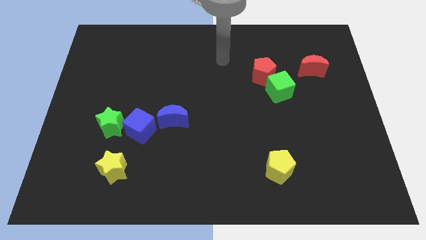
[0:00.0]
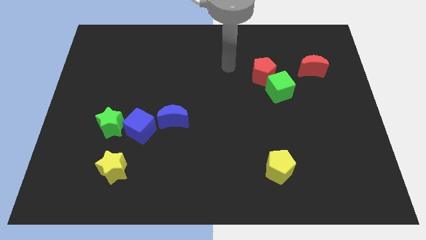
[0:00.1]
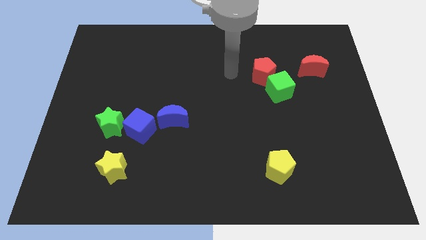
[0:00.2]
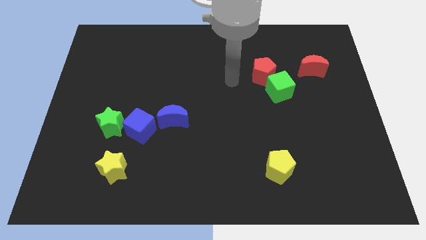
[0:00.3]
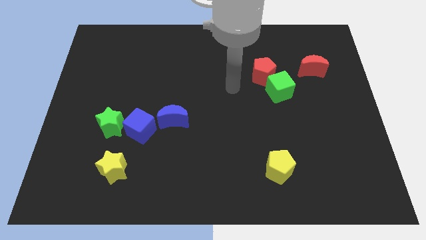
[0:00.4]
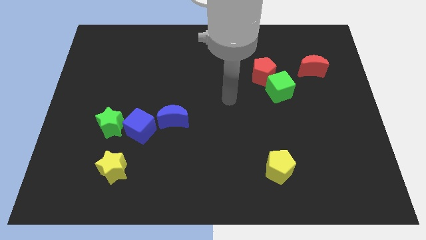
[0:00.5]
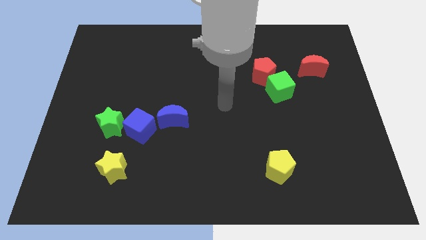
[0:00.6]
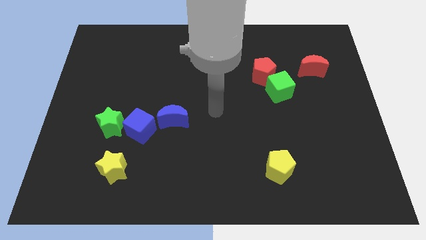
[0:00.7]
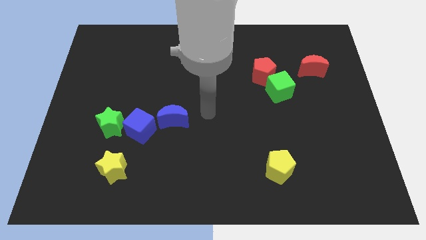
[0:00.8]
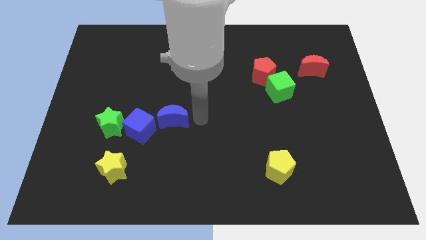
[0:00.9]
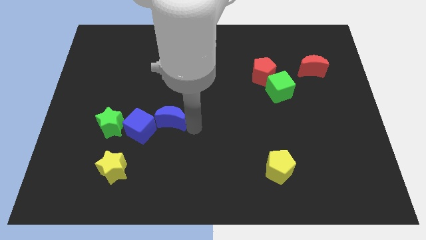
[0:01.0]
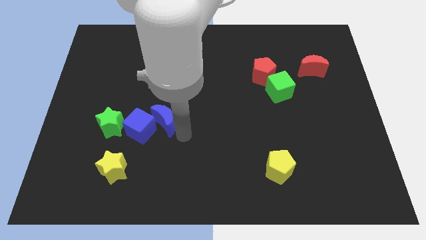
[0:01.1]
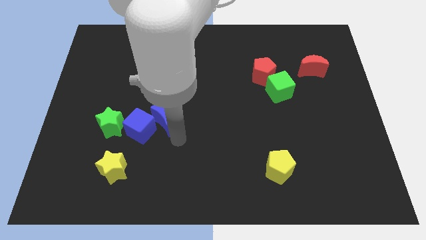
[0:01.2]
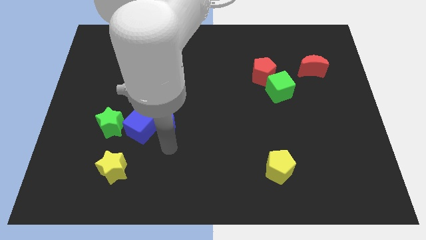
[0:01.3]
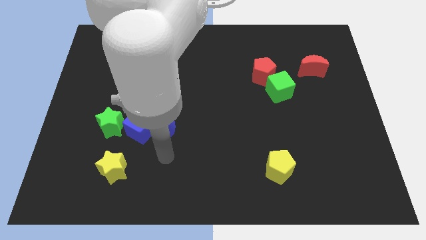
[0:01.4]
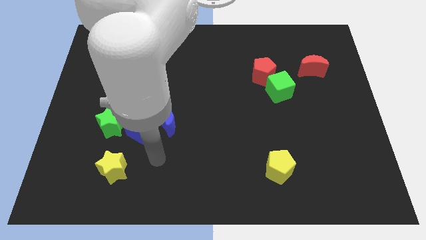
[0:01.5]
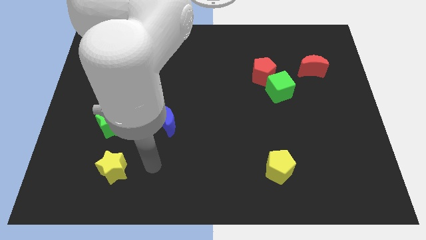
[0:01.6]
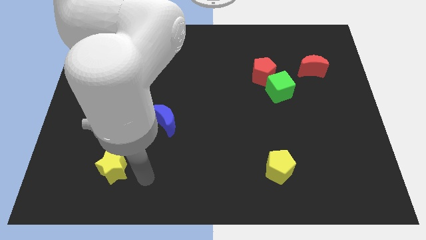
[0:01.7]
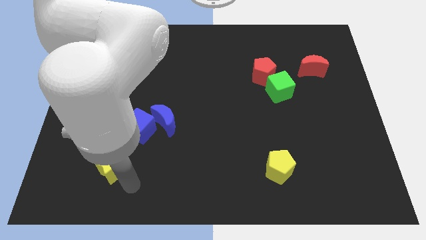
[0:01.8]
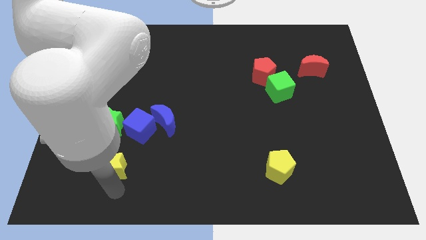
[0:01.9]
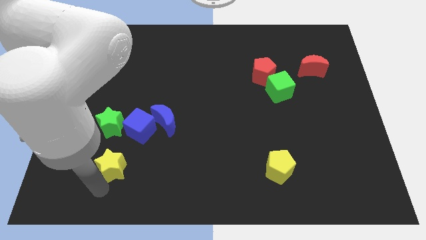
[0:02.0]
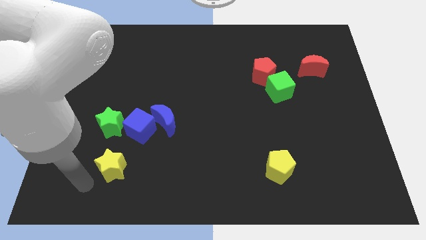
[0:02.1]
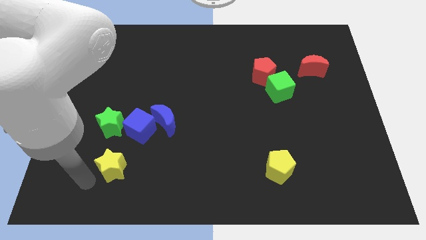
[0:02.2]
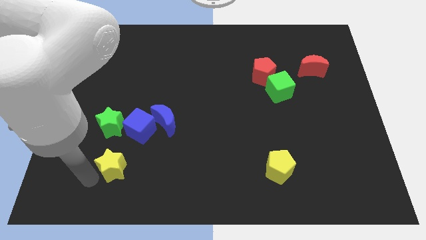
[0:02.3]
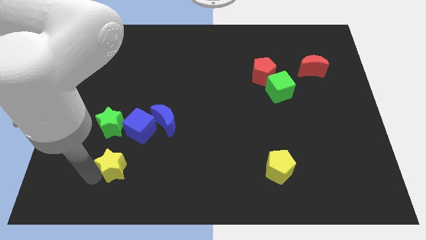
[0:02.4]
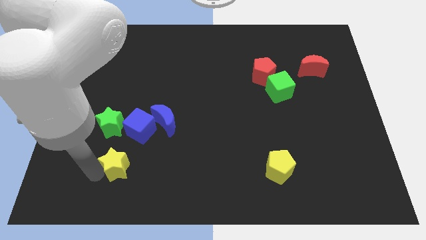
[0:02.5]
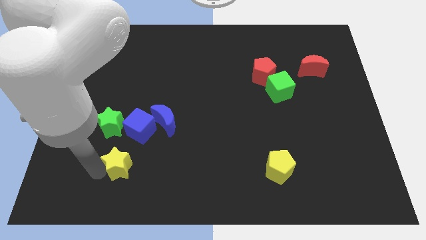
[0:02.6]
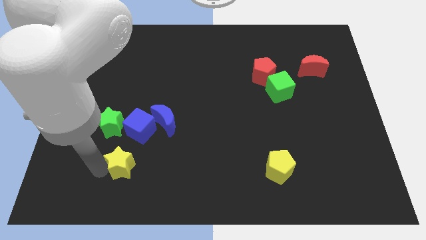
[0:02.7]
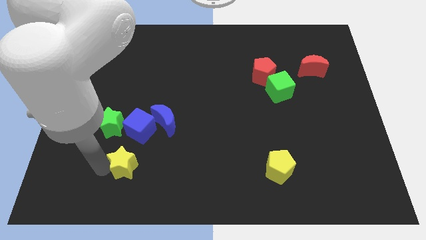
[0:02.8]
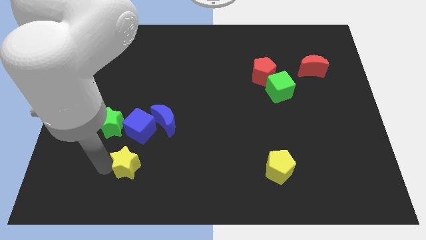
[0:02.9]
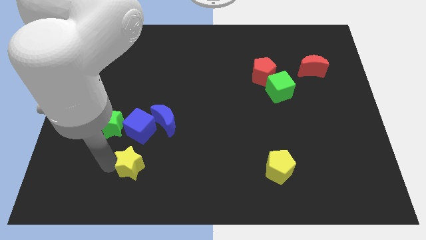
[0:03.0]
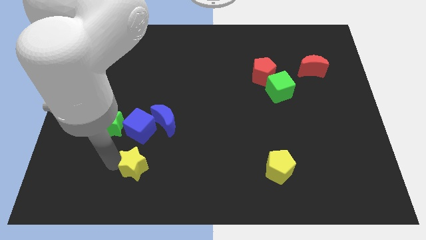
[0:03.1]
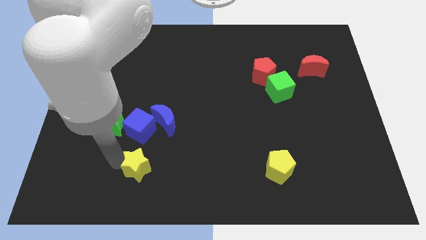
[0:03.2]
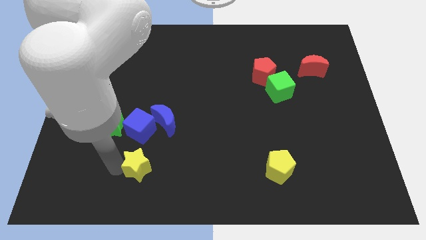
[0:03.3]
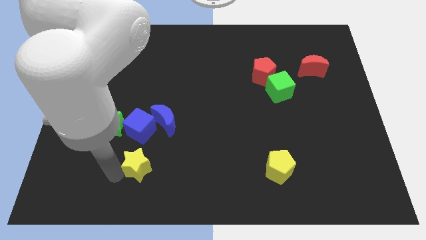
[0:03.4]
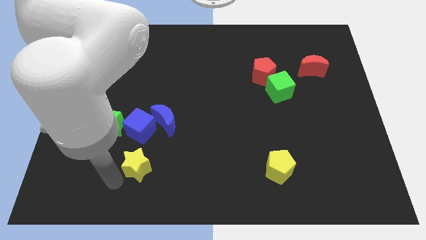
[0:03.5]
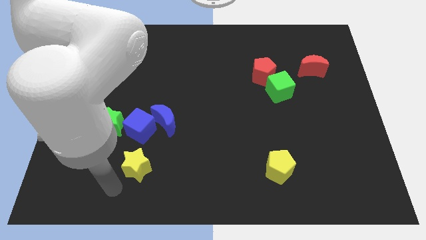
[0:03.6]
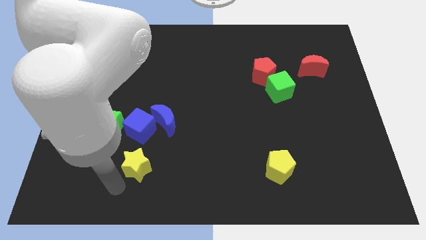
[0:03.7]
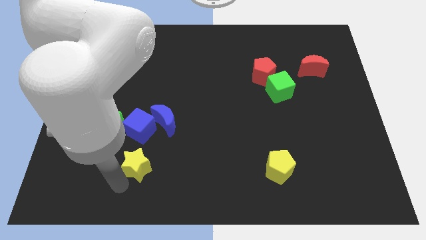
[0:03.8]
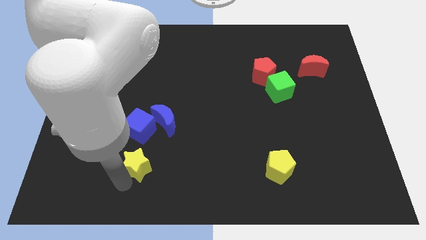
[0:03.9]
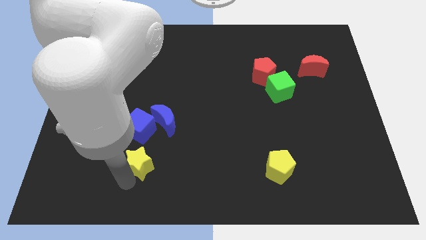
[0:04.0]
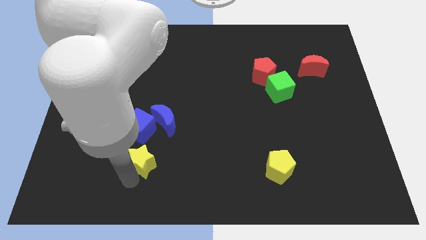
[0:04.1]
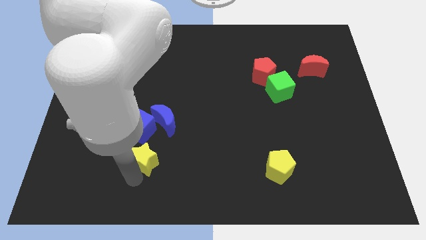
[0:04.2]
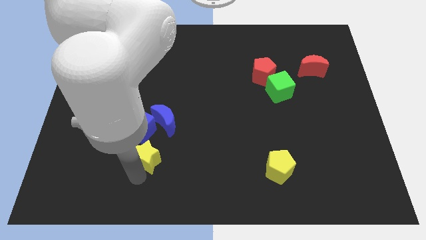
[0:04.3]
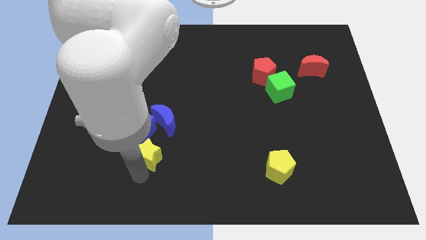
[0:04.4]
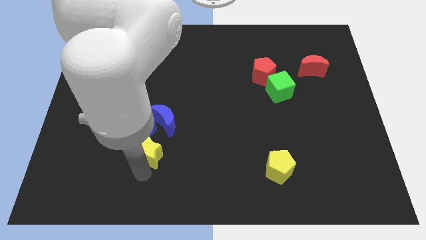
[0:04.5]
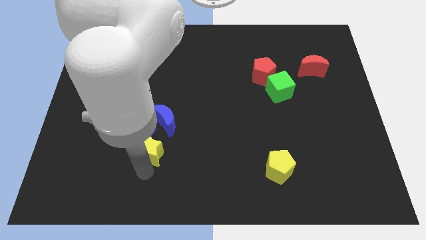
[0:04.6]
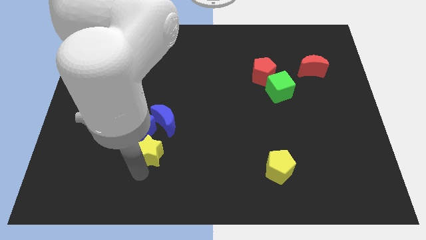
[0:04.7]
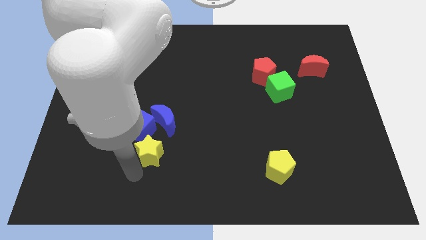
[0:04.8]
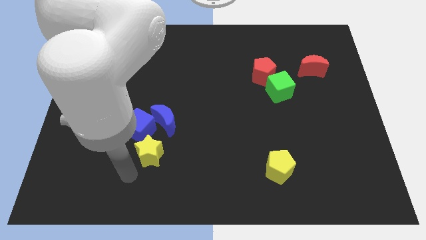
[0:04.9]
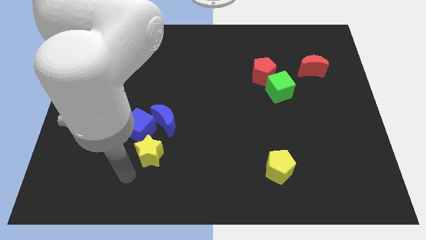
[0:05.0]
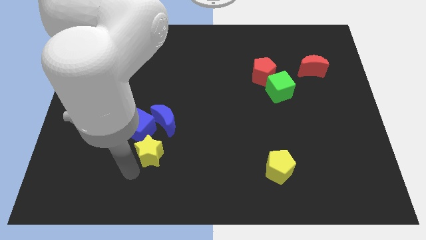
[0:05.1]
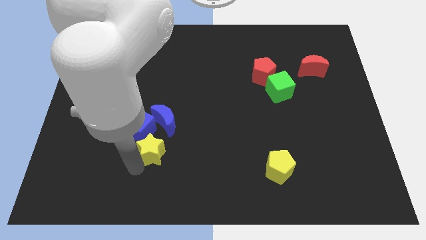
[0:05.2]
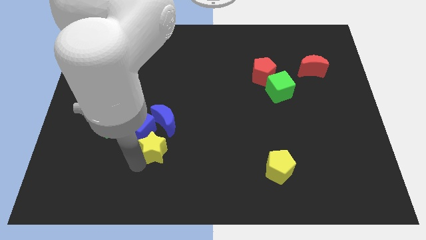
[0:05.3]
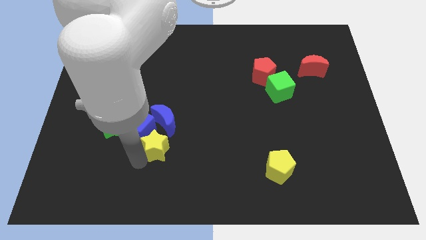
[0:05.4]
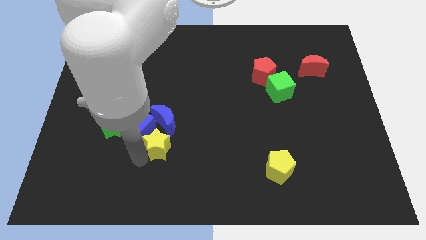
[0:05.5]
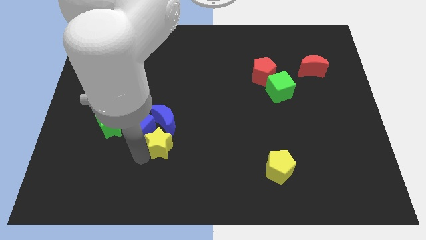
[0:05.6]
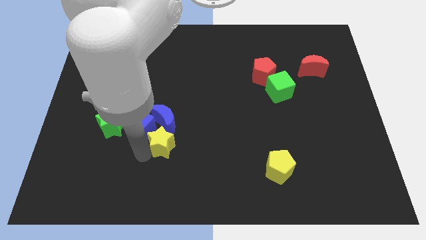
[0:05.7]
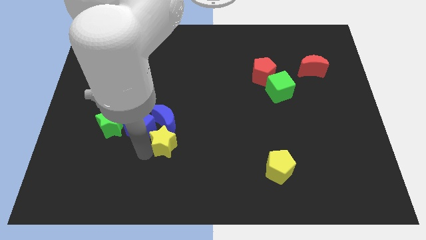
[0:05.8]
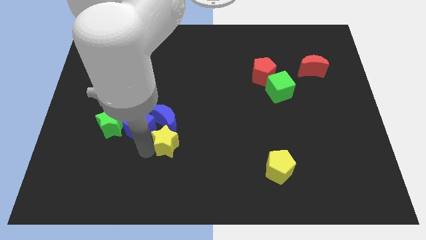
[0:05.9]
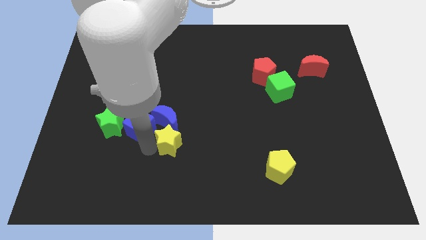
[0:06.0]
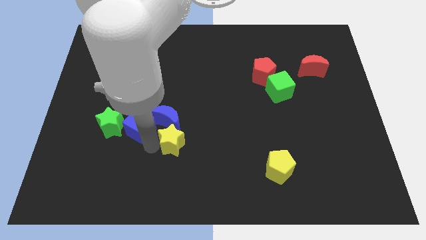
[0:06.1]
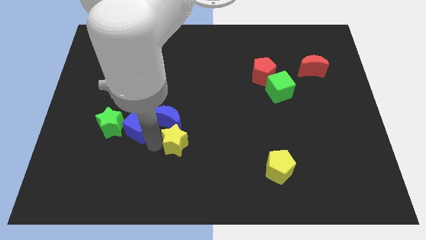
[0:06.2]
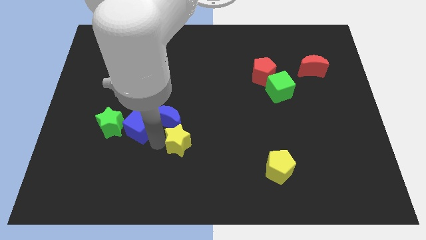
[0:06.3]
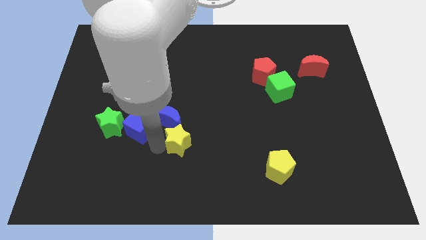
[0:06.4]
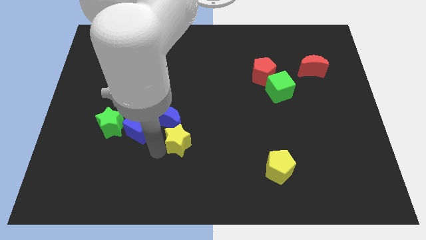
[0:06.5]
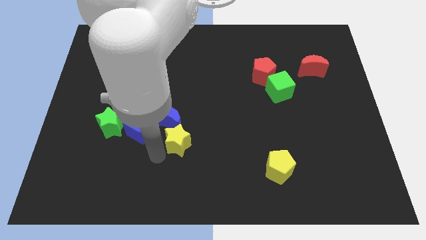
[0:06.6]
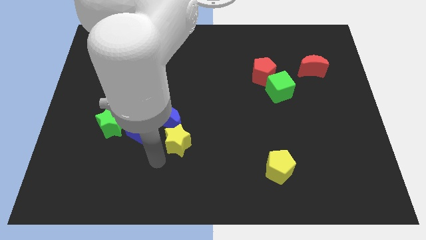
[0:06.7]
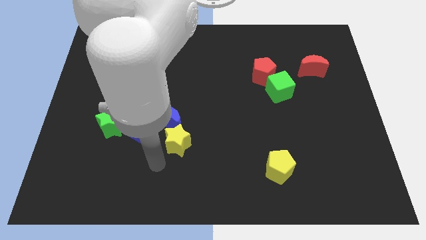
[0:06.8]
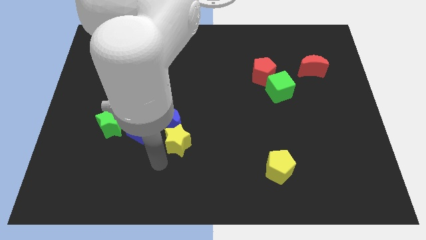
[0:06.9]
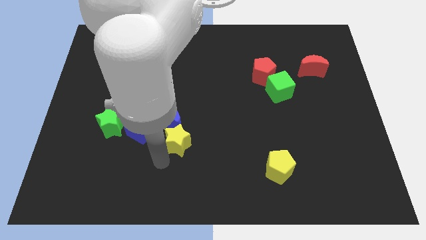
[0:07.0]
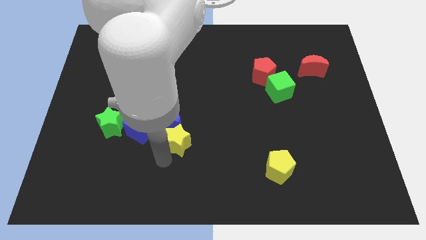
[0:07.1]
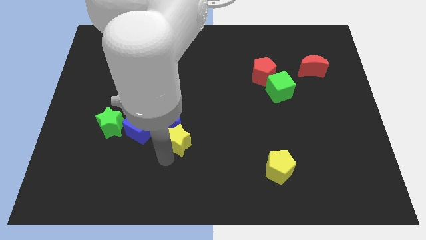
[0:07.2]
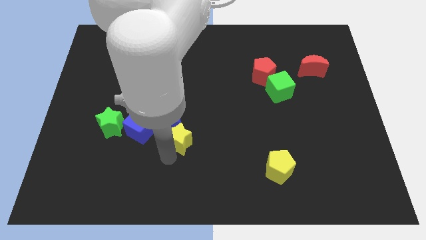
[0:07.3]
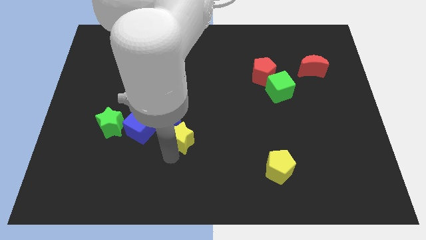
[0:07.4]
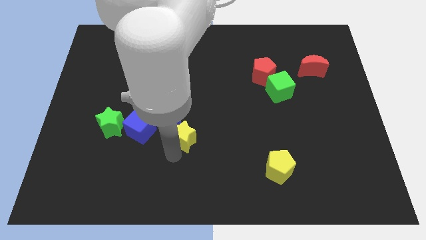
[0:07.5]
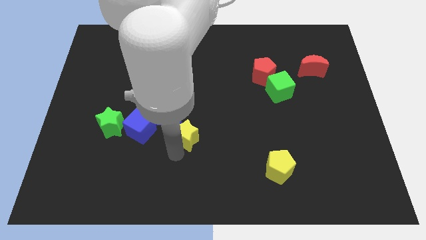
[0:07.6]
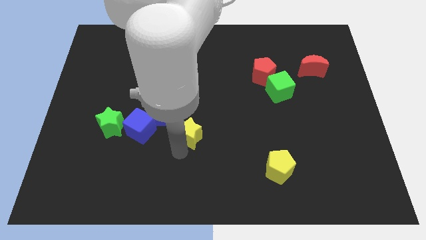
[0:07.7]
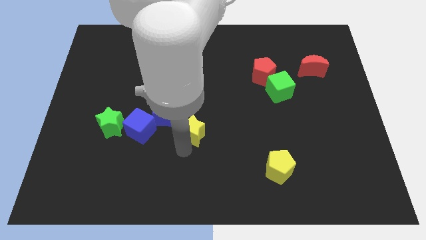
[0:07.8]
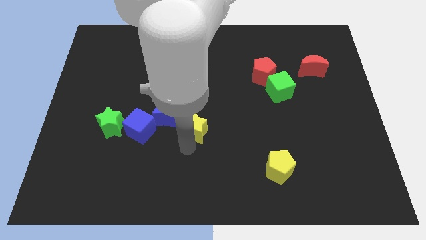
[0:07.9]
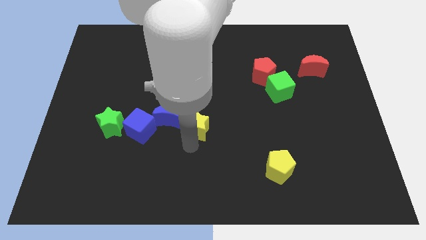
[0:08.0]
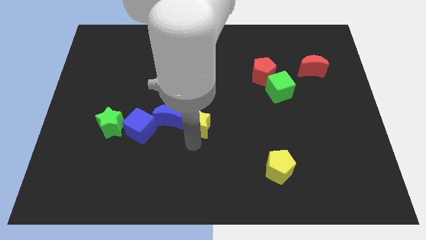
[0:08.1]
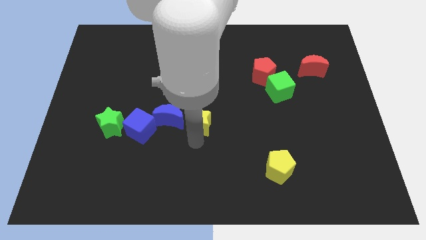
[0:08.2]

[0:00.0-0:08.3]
move the yellow star upwards and then to the right
